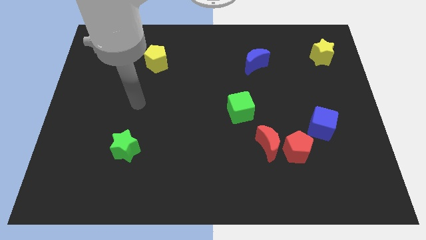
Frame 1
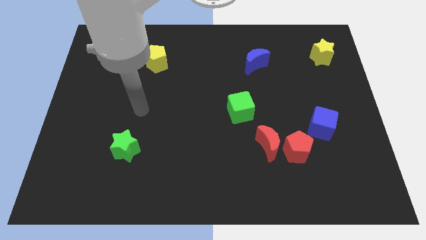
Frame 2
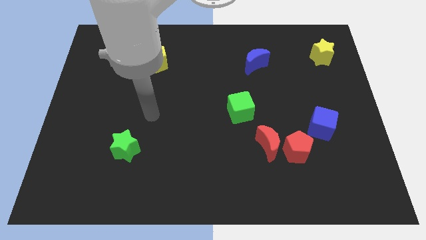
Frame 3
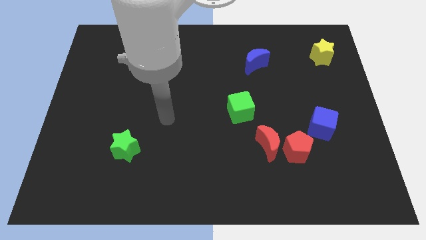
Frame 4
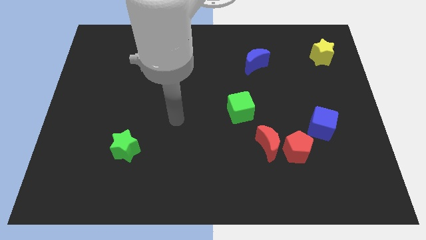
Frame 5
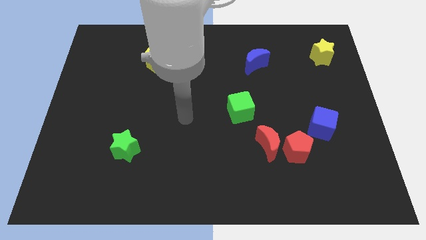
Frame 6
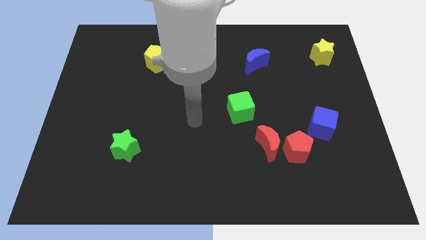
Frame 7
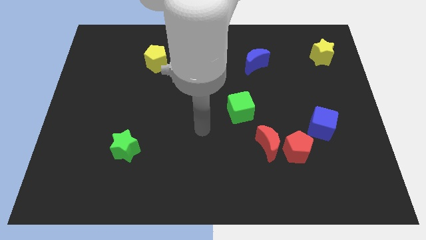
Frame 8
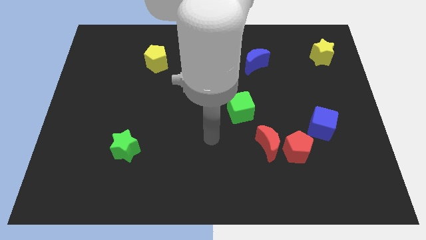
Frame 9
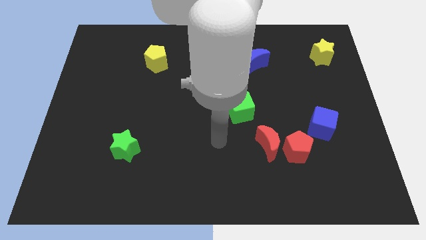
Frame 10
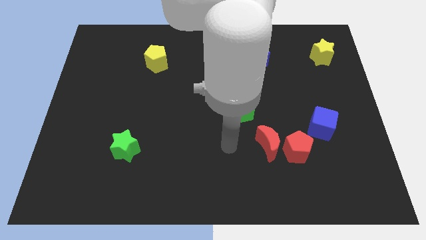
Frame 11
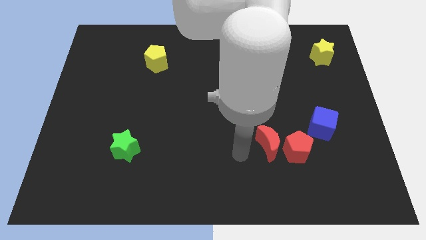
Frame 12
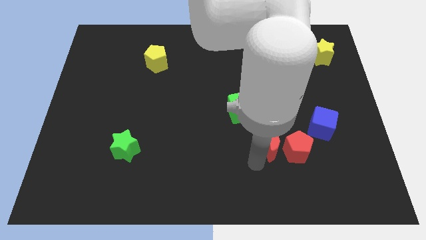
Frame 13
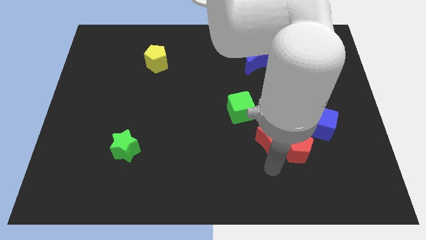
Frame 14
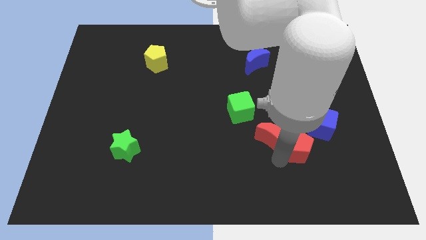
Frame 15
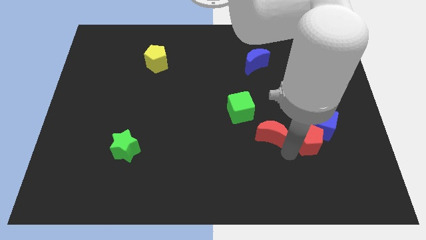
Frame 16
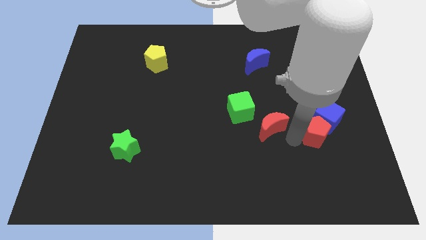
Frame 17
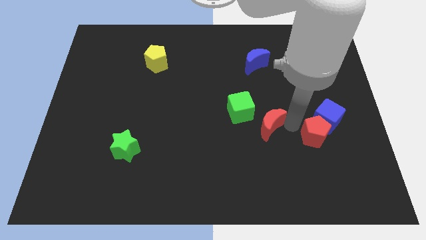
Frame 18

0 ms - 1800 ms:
separate the red moon from the red pentagon

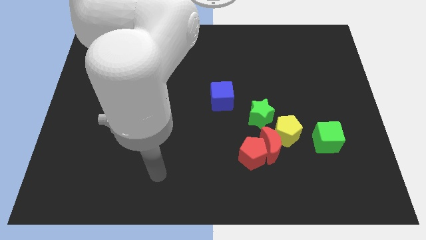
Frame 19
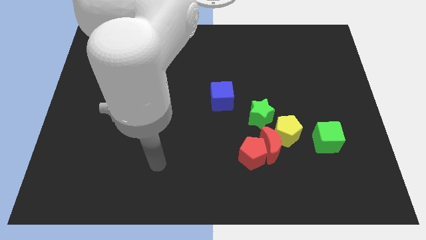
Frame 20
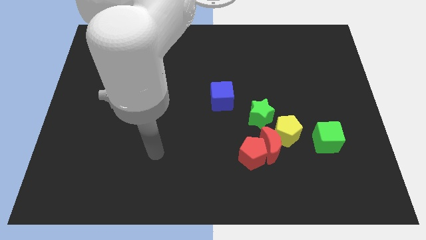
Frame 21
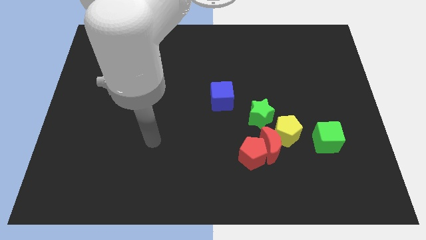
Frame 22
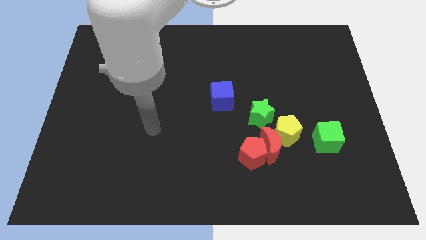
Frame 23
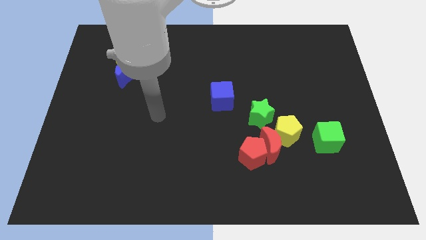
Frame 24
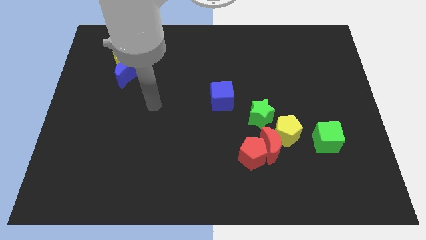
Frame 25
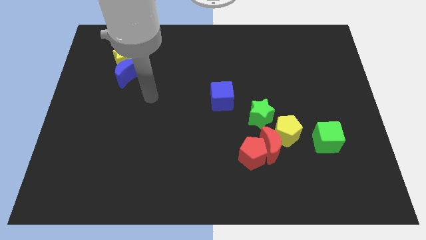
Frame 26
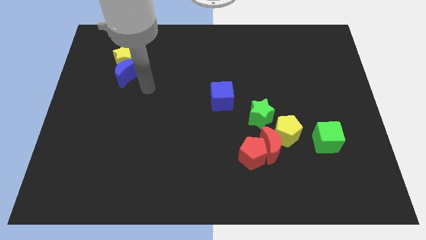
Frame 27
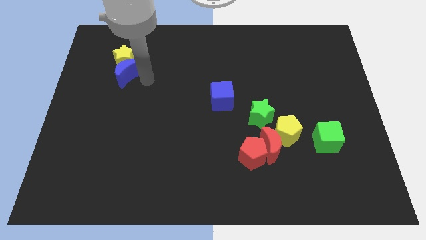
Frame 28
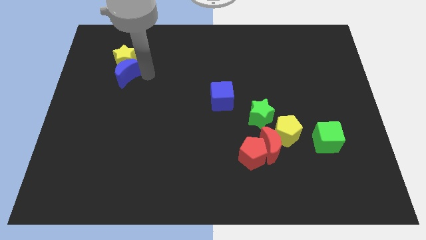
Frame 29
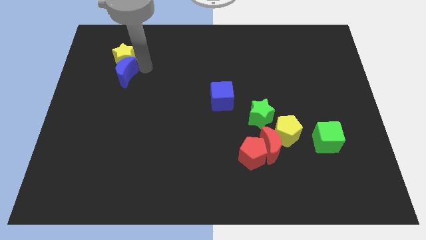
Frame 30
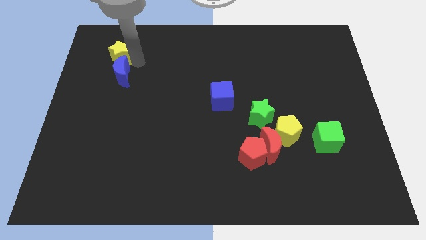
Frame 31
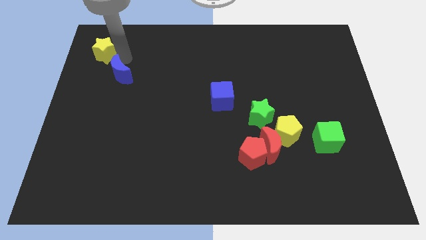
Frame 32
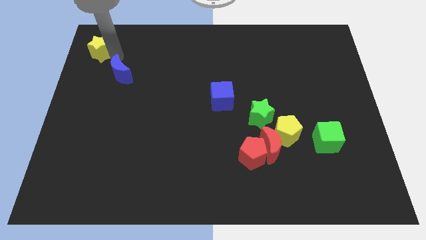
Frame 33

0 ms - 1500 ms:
move the blue moon away from the yellow star

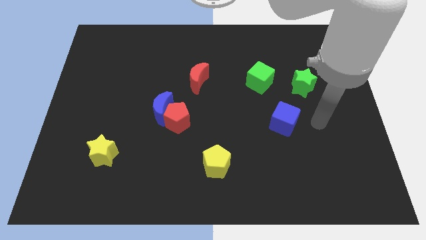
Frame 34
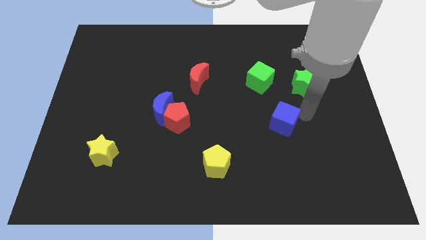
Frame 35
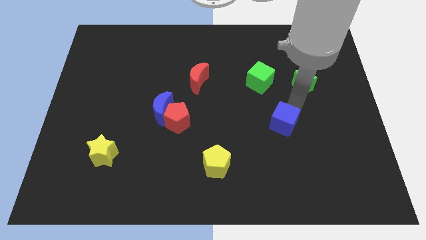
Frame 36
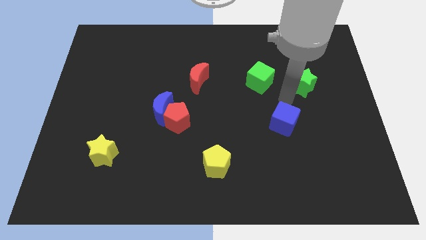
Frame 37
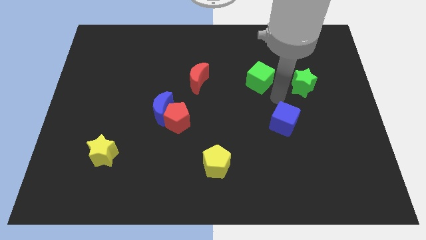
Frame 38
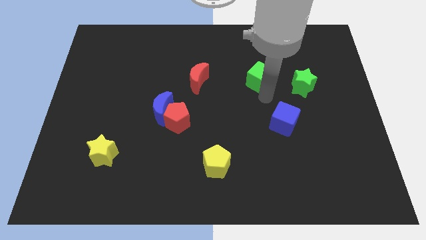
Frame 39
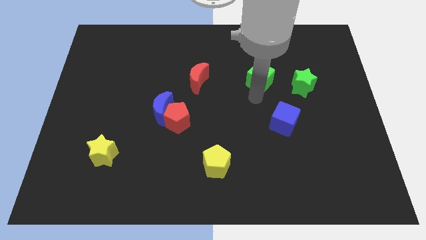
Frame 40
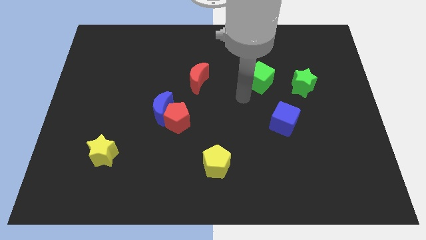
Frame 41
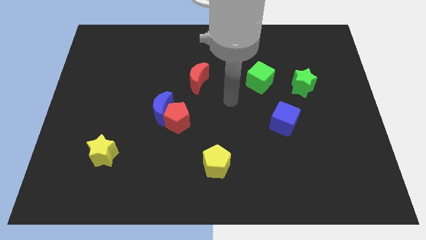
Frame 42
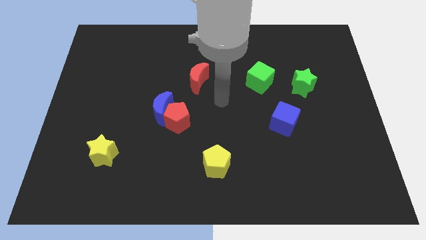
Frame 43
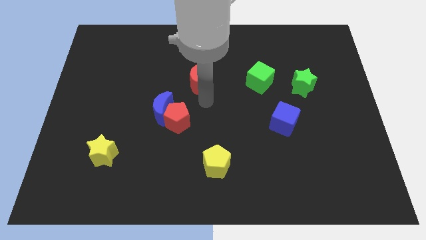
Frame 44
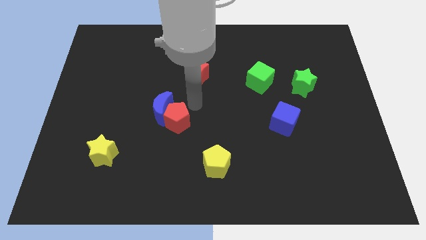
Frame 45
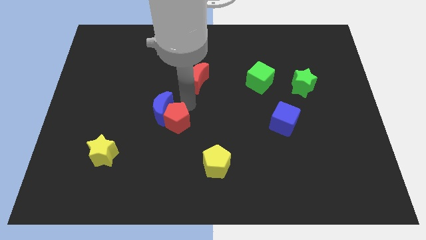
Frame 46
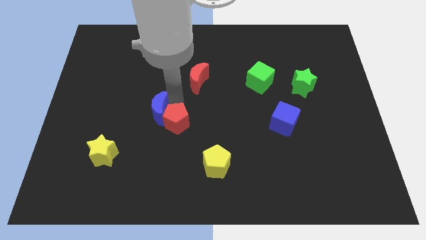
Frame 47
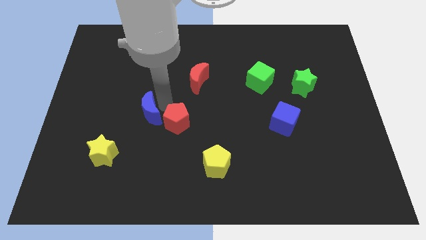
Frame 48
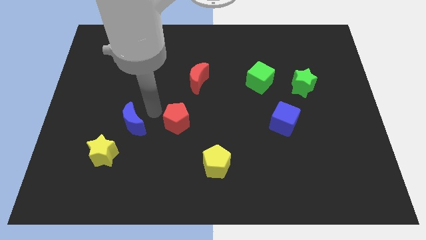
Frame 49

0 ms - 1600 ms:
separate the red pentagon from the blue moon

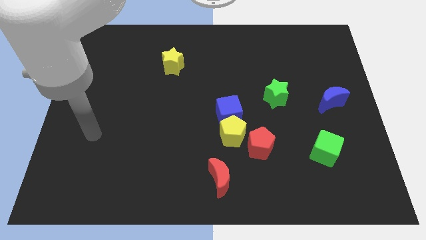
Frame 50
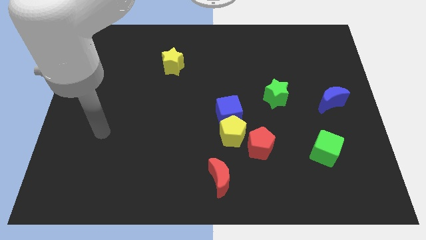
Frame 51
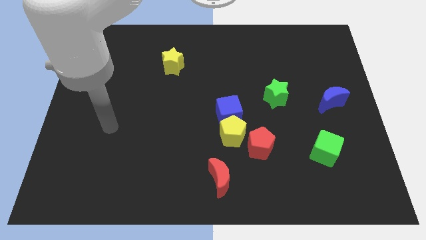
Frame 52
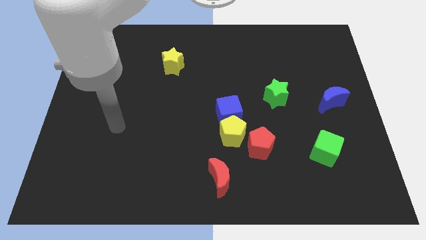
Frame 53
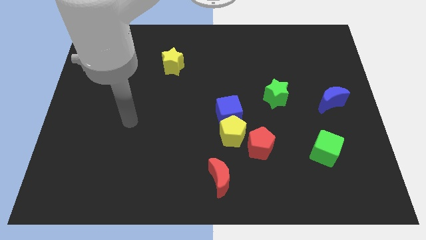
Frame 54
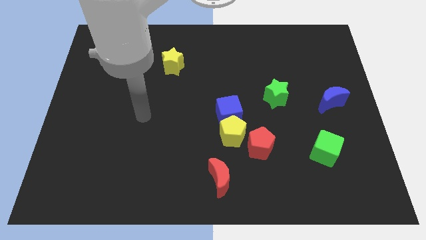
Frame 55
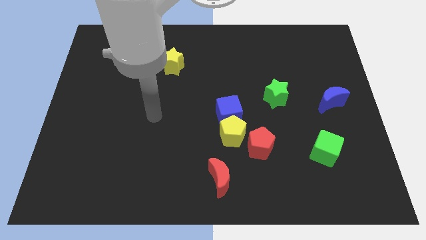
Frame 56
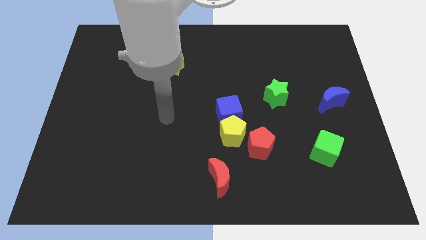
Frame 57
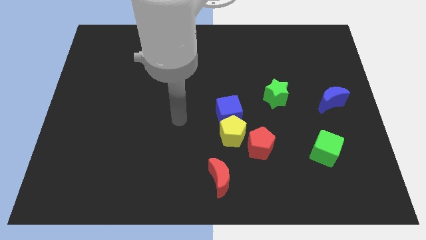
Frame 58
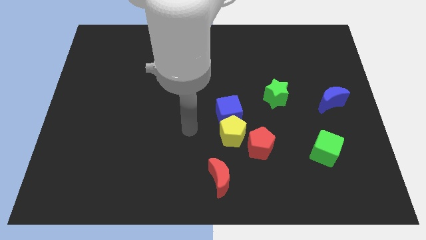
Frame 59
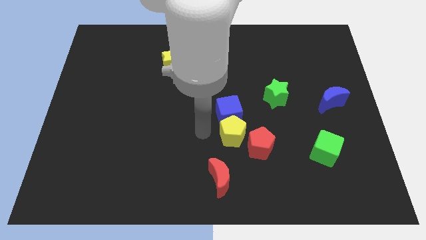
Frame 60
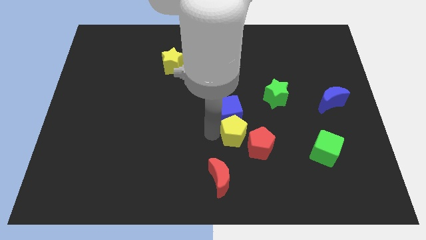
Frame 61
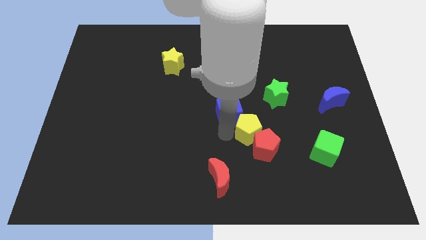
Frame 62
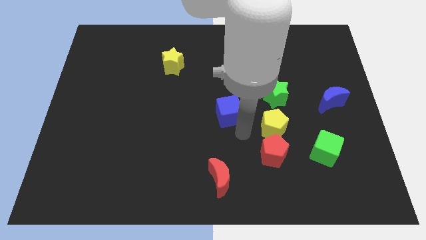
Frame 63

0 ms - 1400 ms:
pull the blue cube apart from the yellow pentagon

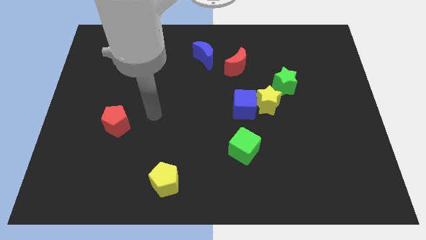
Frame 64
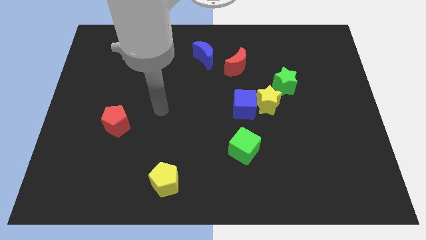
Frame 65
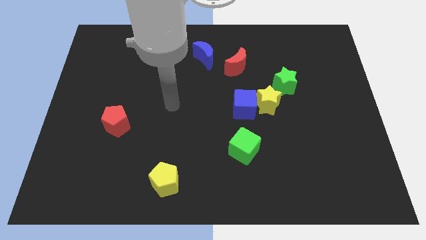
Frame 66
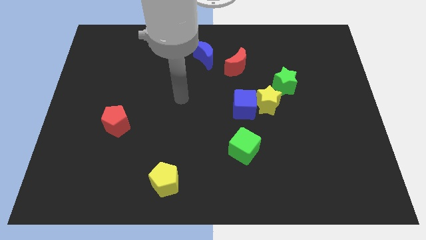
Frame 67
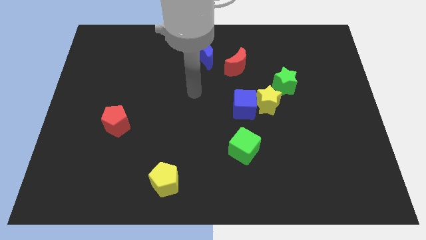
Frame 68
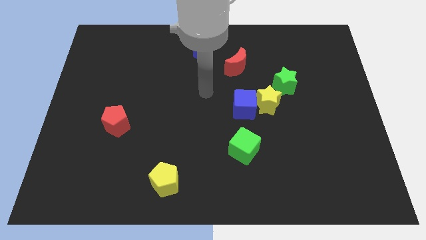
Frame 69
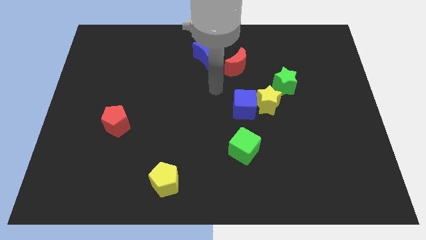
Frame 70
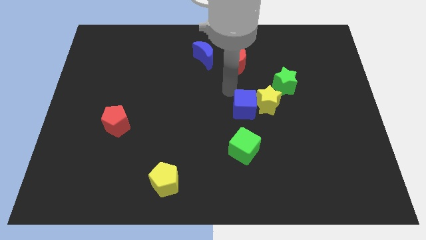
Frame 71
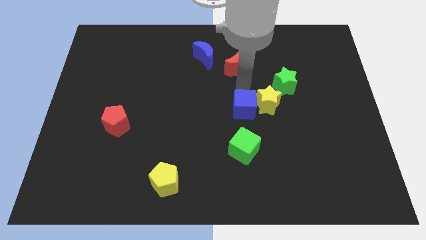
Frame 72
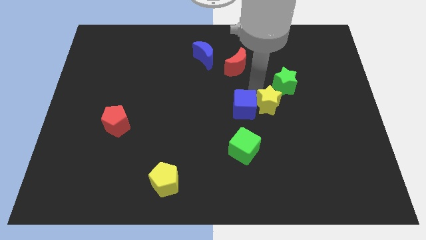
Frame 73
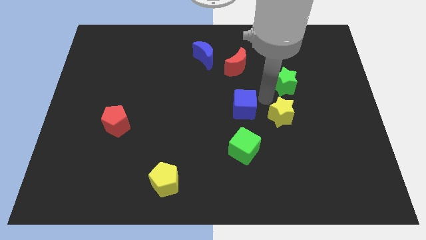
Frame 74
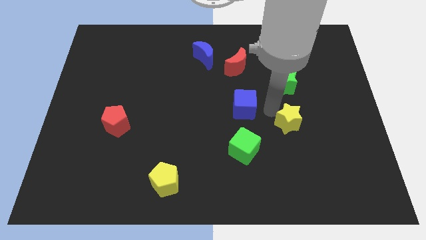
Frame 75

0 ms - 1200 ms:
separate the blue cube from the yellow star

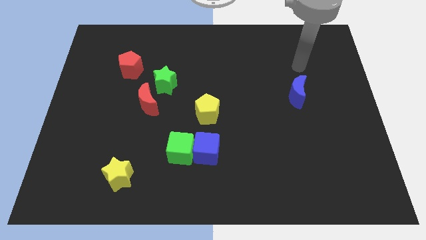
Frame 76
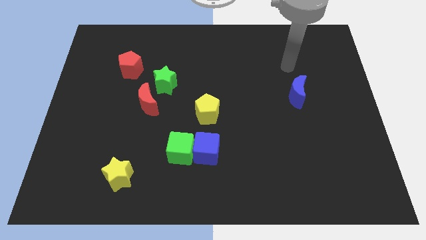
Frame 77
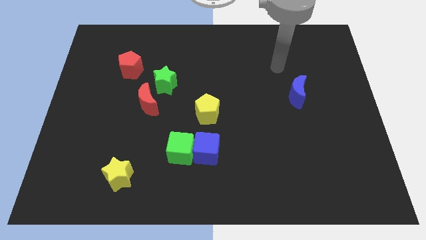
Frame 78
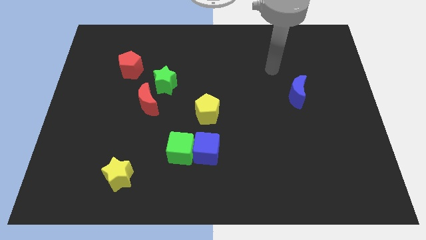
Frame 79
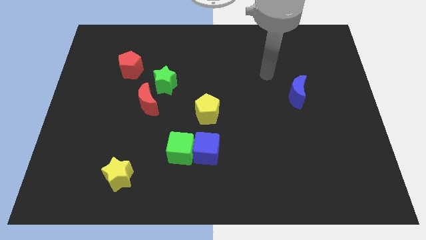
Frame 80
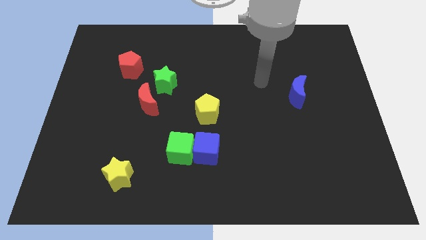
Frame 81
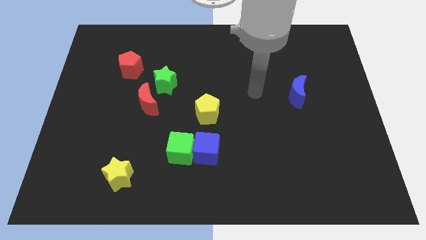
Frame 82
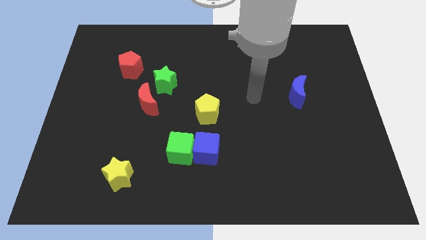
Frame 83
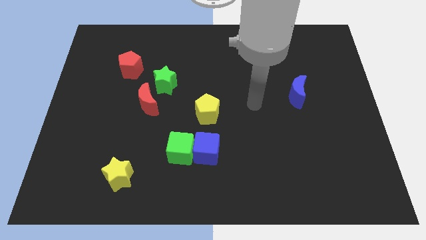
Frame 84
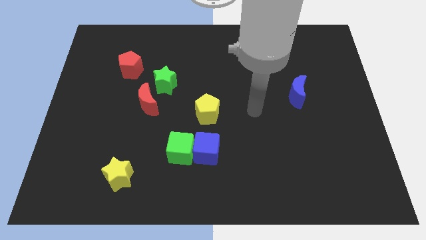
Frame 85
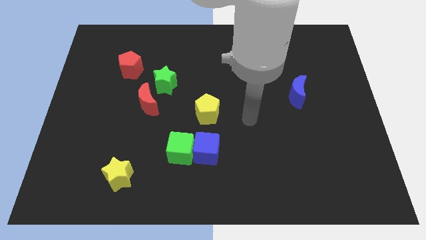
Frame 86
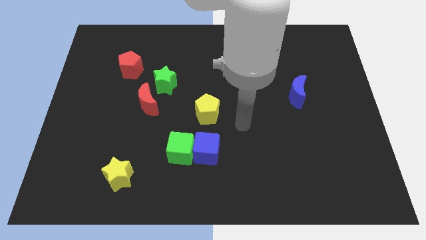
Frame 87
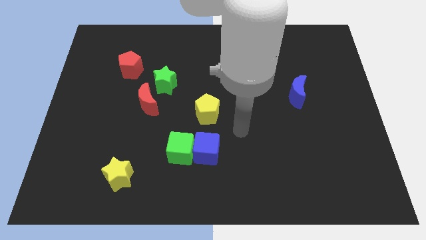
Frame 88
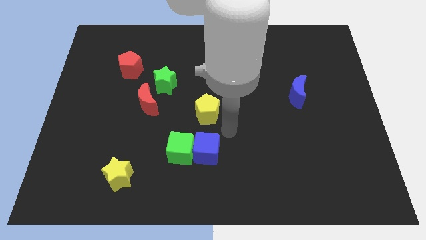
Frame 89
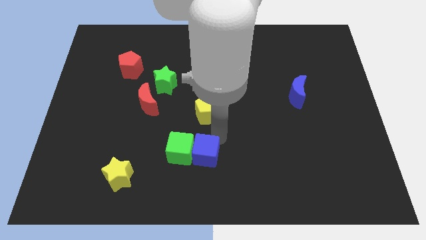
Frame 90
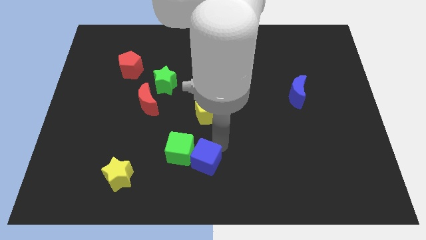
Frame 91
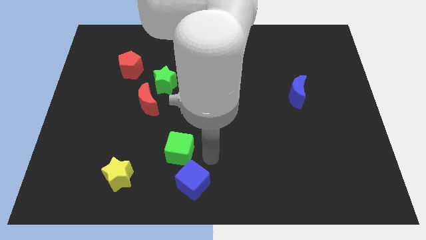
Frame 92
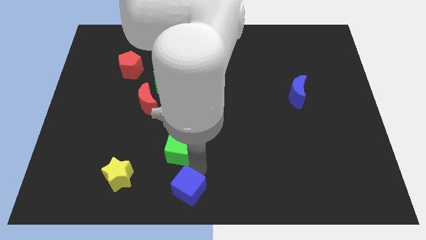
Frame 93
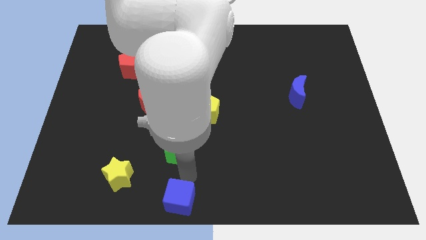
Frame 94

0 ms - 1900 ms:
separate the green cube from the blue cube
